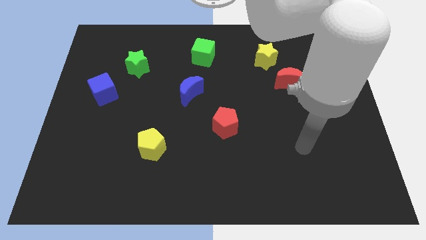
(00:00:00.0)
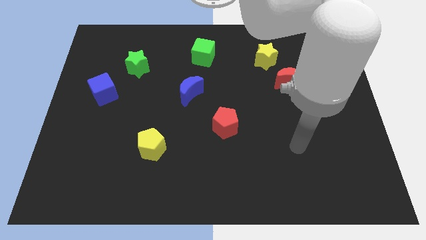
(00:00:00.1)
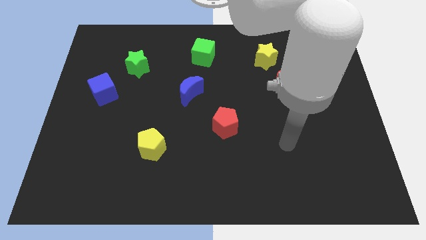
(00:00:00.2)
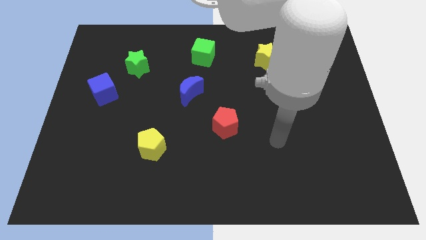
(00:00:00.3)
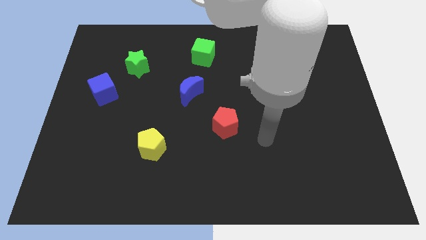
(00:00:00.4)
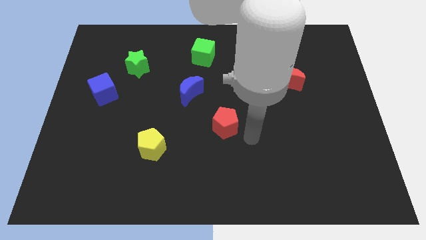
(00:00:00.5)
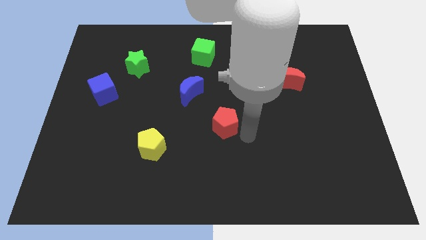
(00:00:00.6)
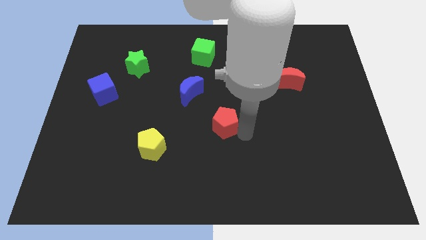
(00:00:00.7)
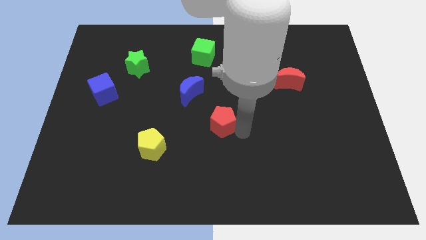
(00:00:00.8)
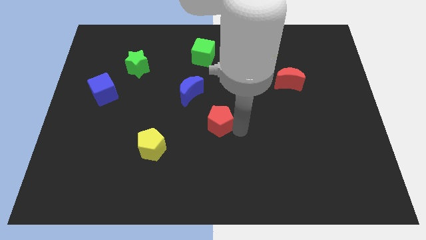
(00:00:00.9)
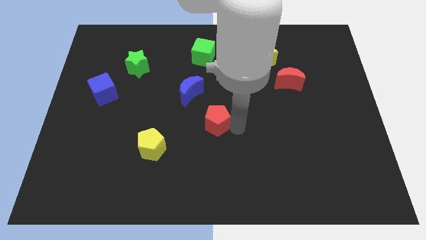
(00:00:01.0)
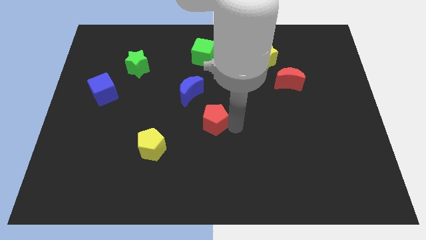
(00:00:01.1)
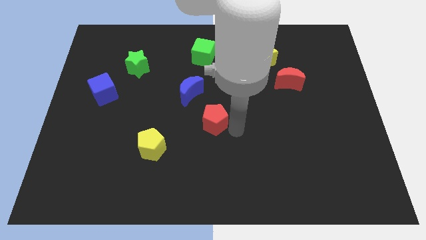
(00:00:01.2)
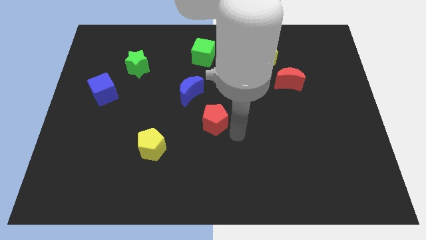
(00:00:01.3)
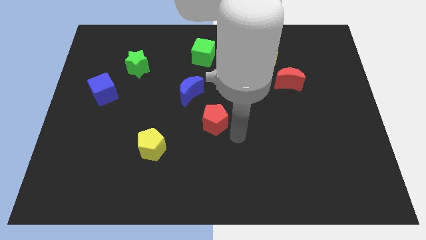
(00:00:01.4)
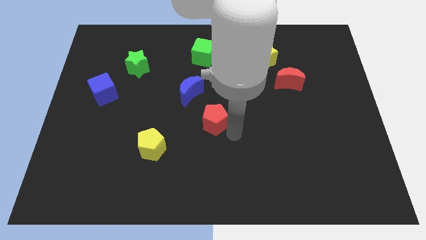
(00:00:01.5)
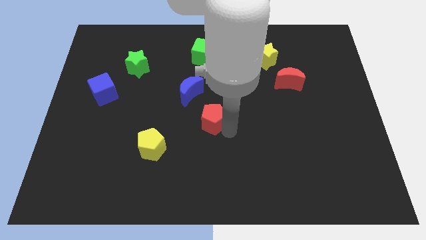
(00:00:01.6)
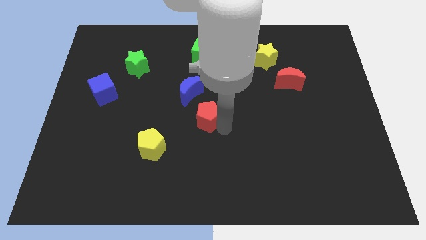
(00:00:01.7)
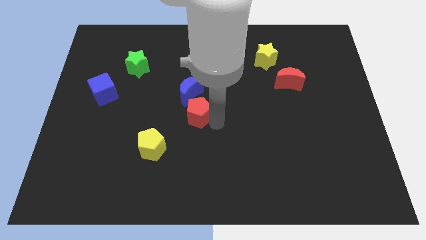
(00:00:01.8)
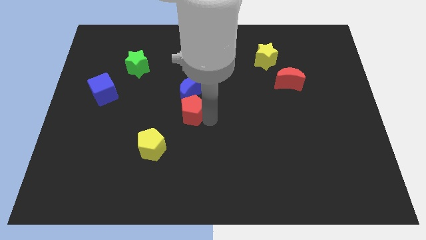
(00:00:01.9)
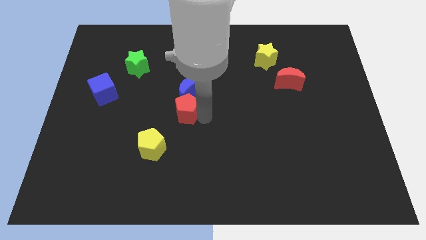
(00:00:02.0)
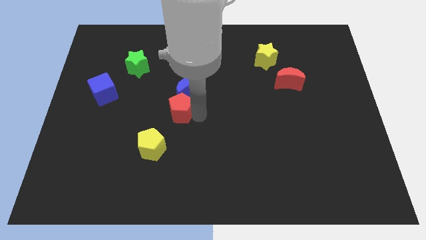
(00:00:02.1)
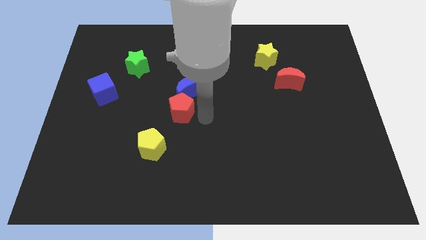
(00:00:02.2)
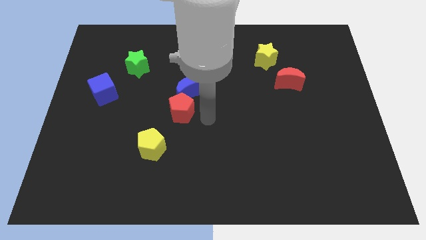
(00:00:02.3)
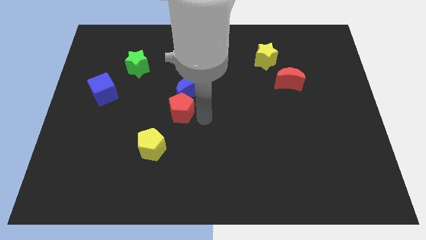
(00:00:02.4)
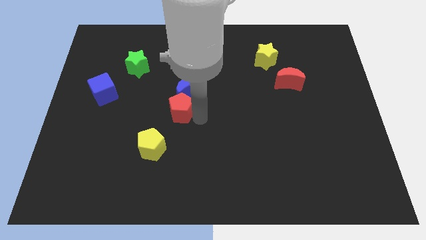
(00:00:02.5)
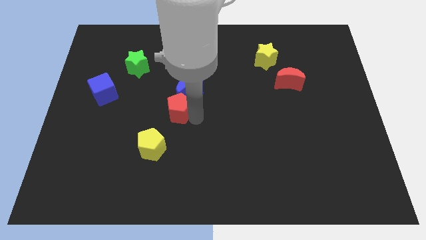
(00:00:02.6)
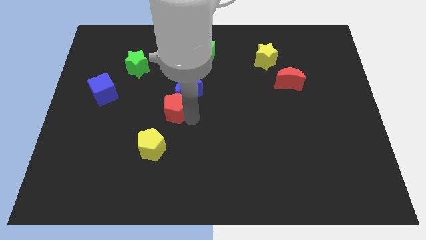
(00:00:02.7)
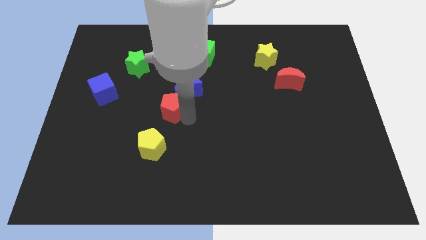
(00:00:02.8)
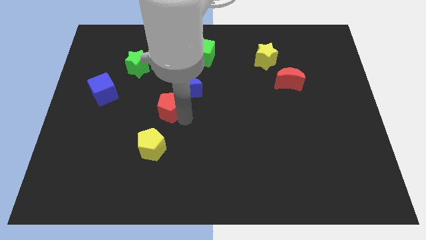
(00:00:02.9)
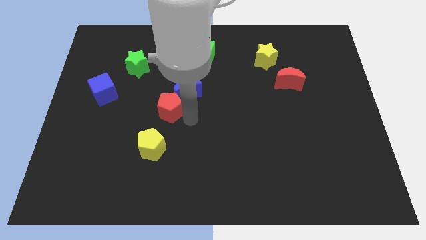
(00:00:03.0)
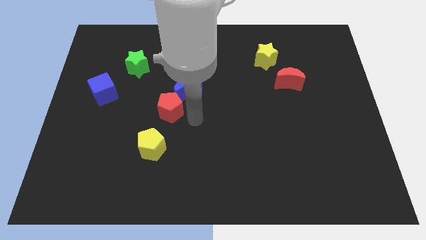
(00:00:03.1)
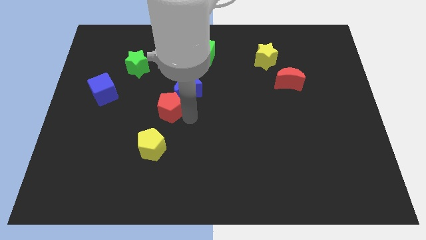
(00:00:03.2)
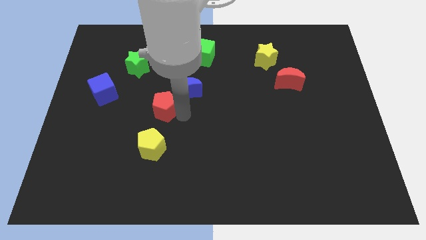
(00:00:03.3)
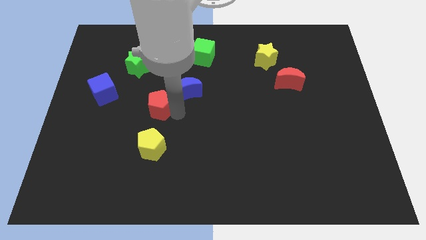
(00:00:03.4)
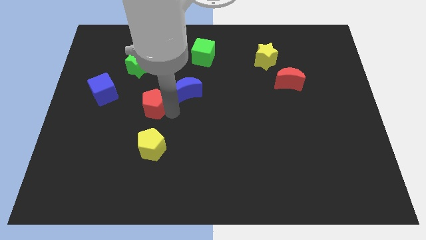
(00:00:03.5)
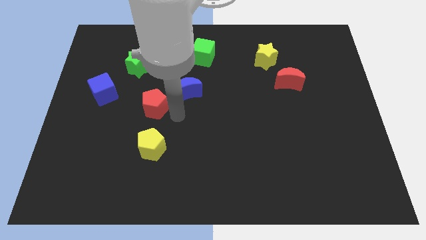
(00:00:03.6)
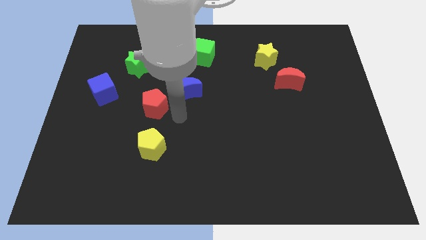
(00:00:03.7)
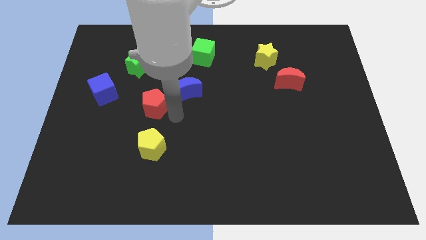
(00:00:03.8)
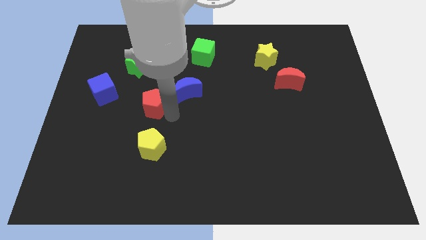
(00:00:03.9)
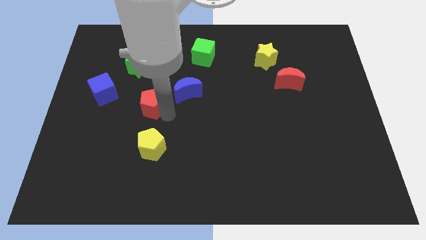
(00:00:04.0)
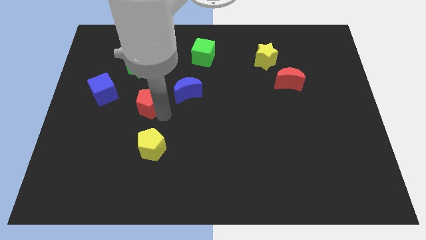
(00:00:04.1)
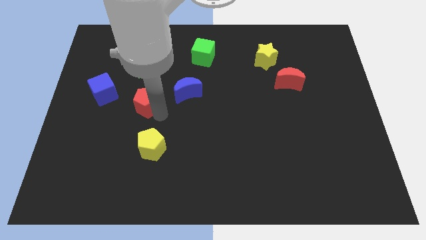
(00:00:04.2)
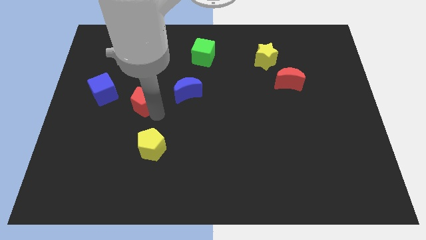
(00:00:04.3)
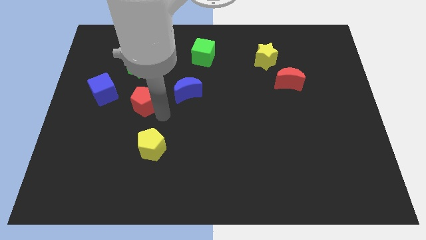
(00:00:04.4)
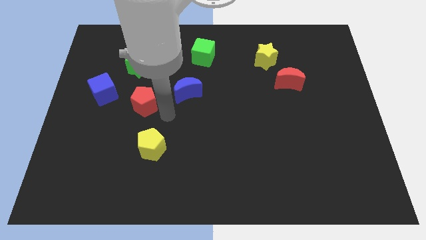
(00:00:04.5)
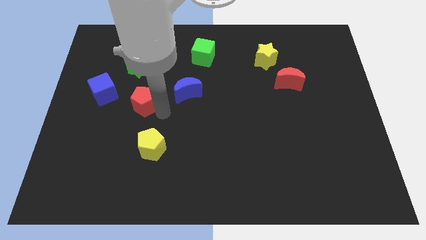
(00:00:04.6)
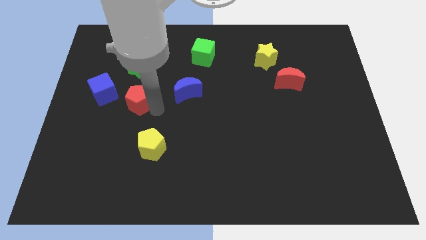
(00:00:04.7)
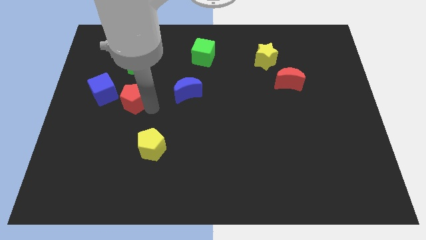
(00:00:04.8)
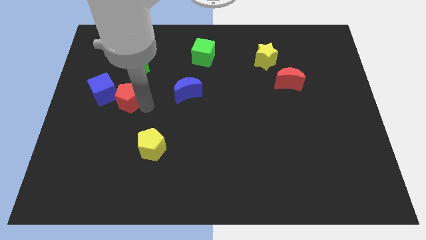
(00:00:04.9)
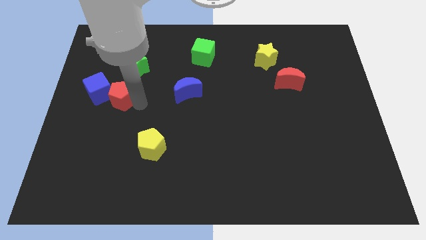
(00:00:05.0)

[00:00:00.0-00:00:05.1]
move the red pentagon next to the blue cube

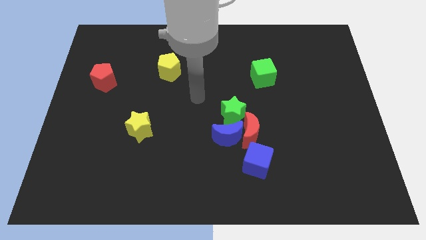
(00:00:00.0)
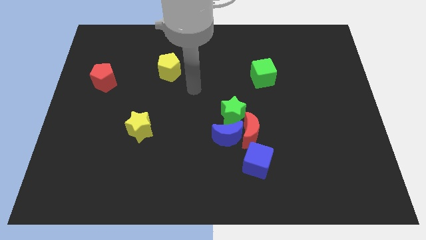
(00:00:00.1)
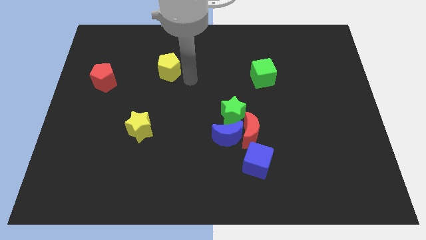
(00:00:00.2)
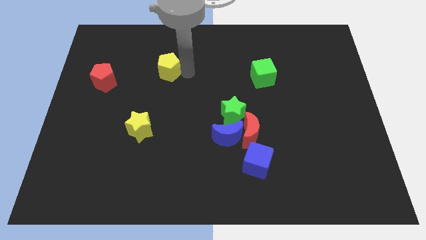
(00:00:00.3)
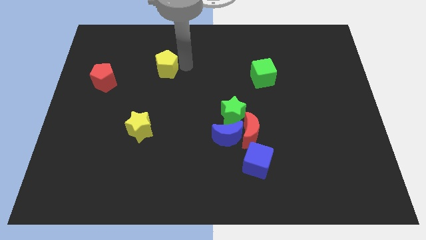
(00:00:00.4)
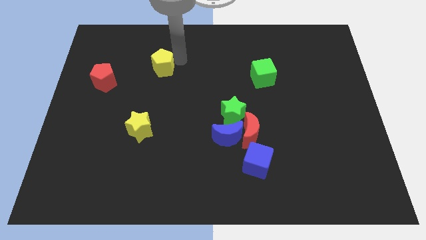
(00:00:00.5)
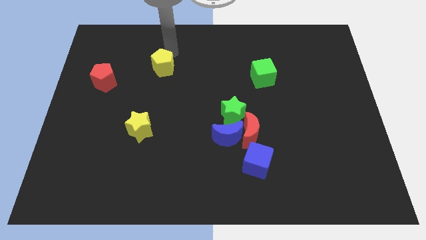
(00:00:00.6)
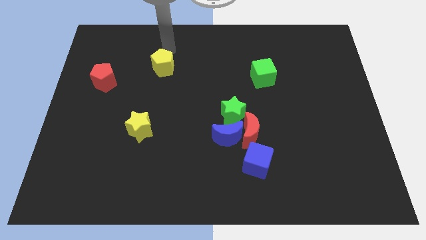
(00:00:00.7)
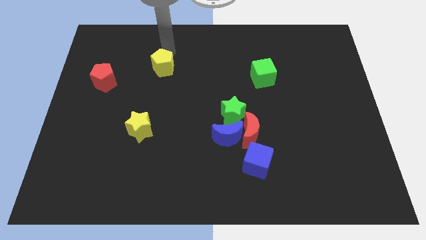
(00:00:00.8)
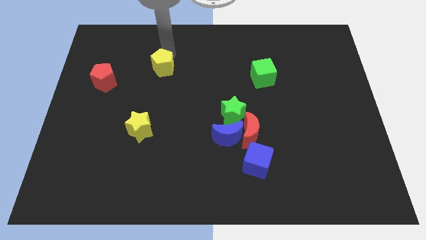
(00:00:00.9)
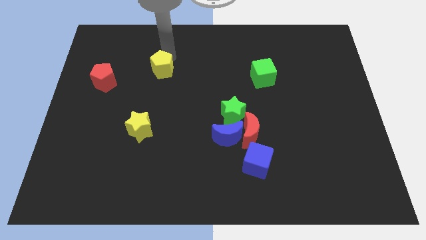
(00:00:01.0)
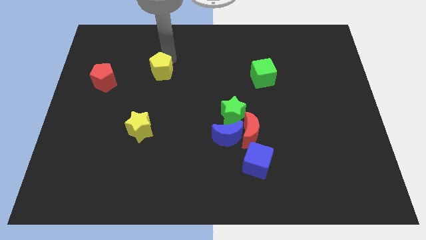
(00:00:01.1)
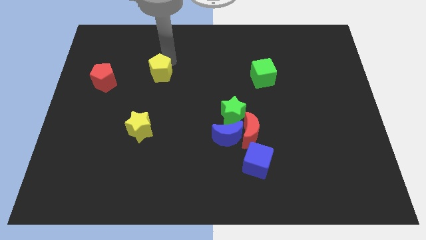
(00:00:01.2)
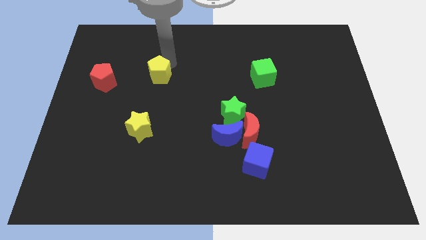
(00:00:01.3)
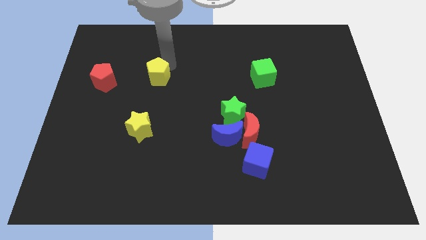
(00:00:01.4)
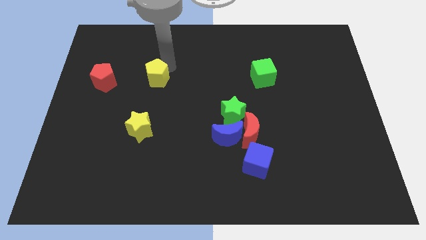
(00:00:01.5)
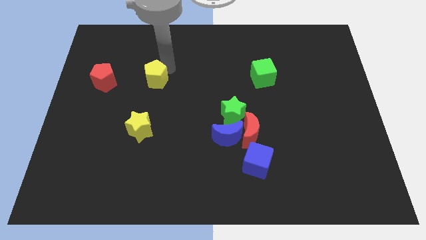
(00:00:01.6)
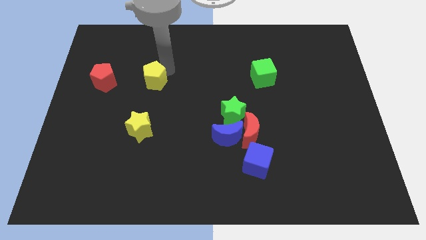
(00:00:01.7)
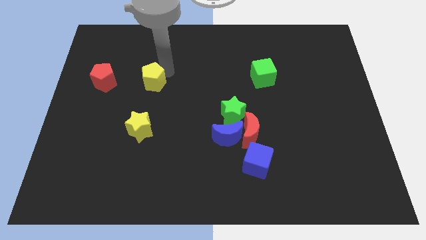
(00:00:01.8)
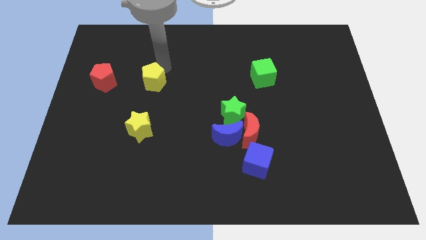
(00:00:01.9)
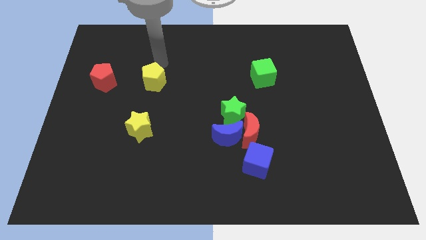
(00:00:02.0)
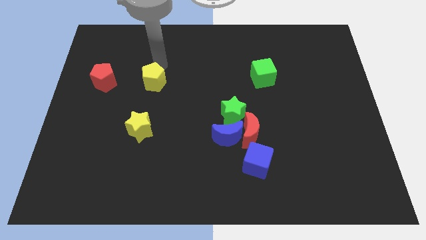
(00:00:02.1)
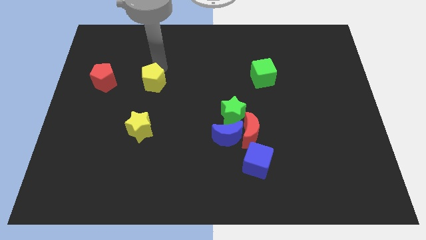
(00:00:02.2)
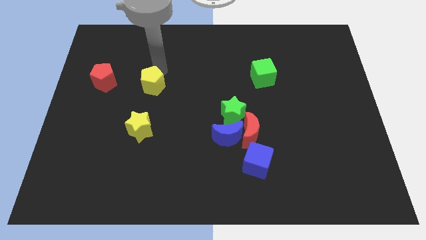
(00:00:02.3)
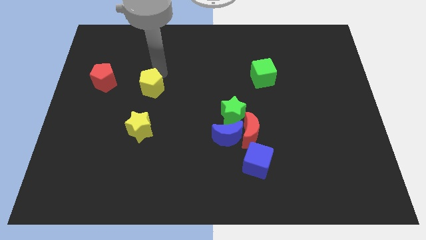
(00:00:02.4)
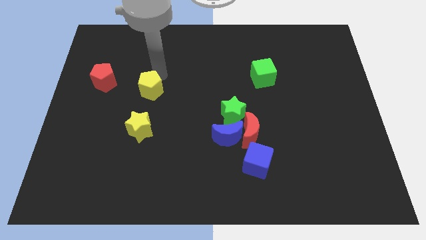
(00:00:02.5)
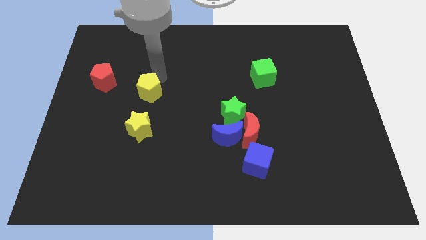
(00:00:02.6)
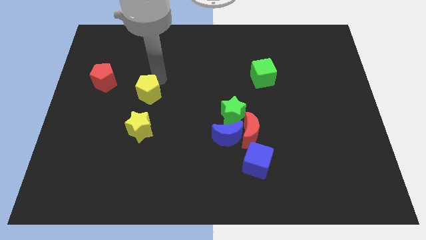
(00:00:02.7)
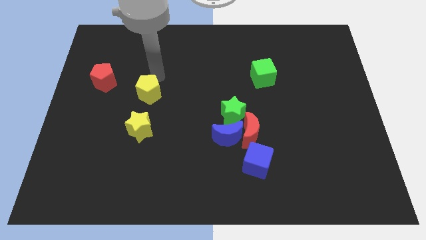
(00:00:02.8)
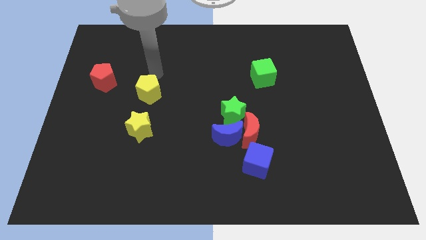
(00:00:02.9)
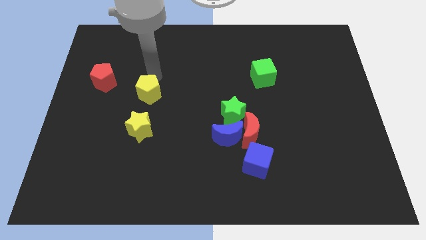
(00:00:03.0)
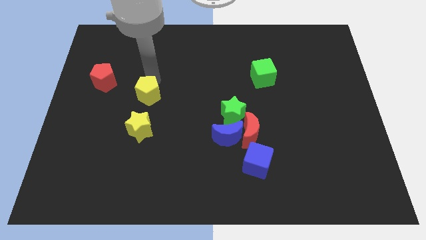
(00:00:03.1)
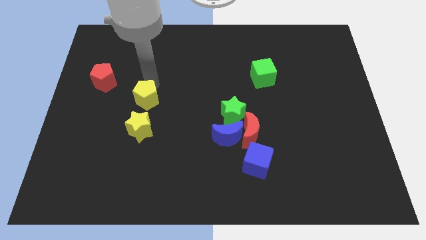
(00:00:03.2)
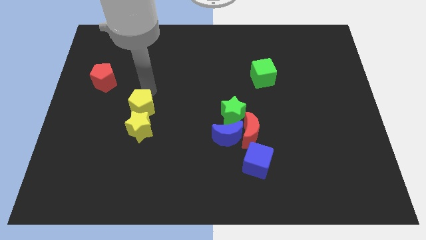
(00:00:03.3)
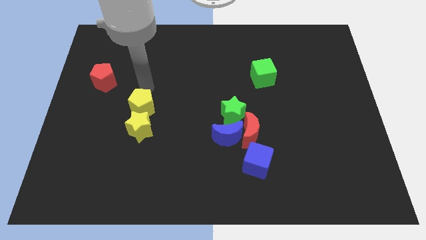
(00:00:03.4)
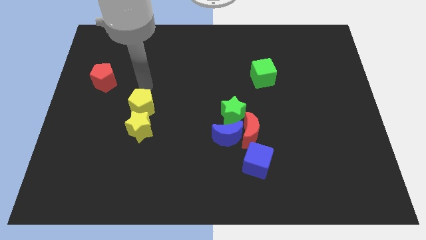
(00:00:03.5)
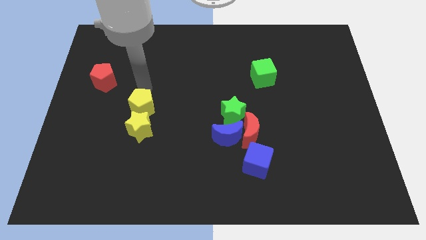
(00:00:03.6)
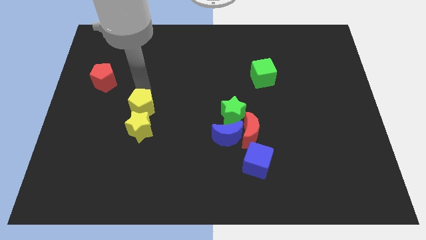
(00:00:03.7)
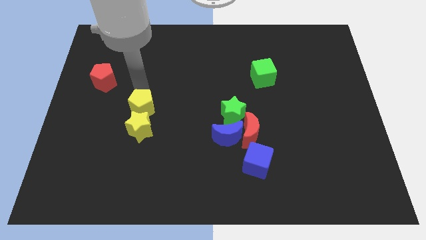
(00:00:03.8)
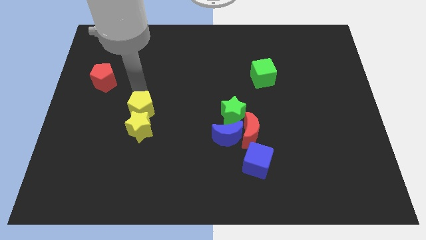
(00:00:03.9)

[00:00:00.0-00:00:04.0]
slide the yellow pentagon to the yellow star
